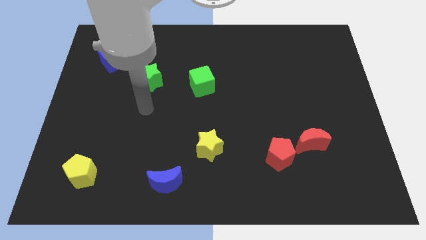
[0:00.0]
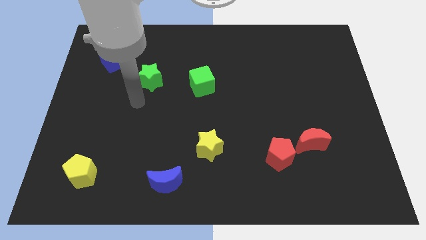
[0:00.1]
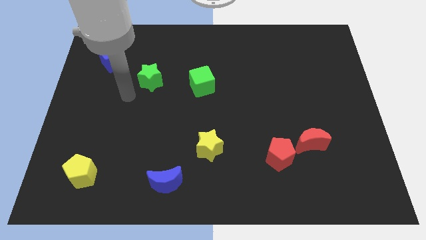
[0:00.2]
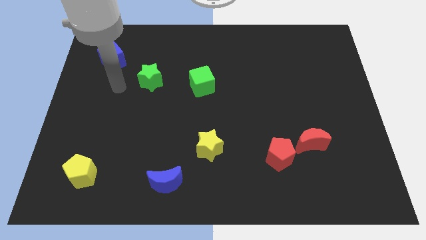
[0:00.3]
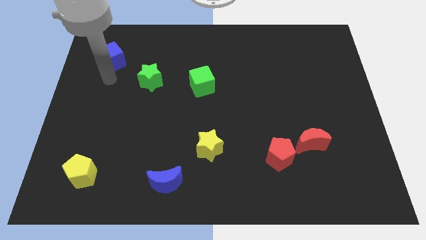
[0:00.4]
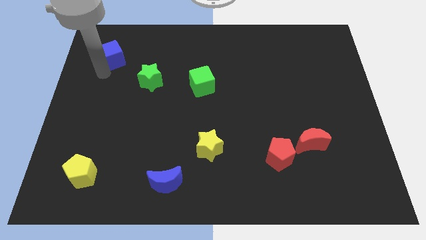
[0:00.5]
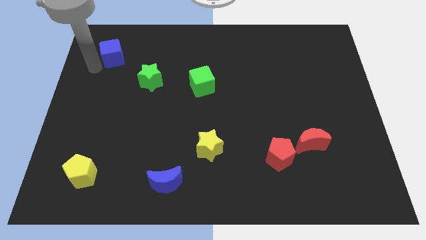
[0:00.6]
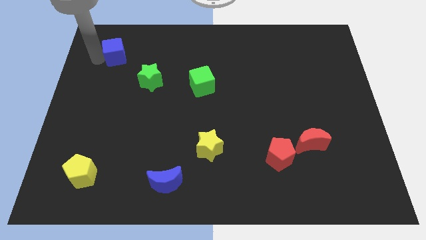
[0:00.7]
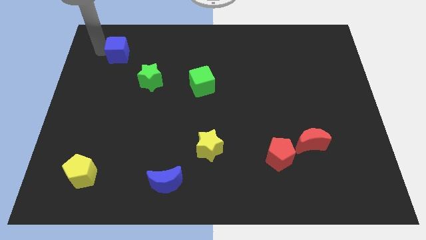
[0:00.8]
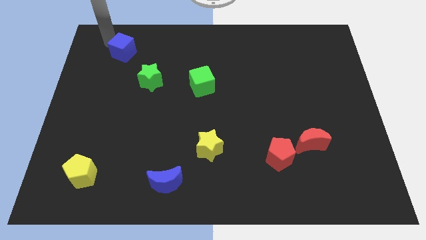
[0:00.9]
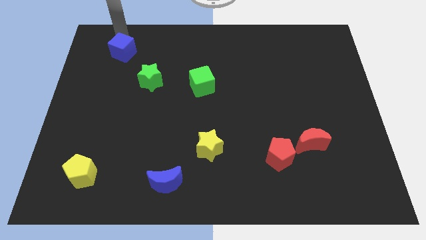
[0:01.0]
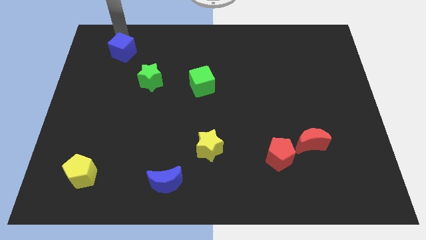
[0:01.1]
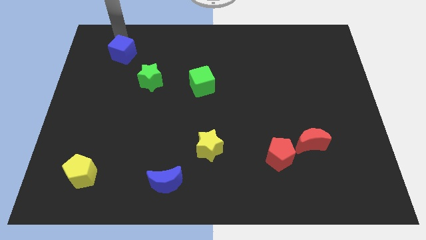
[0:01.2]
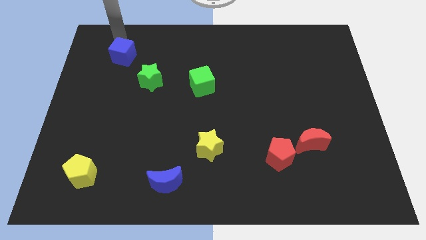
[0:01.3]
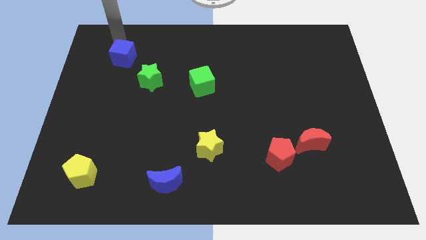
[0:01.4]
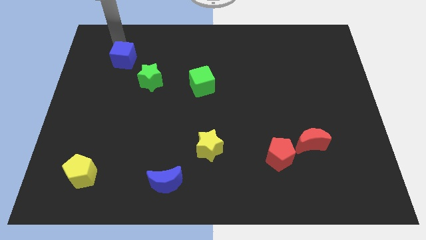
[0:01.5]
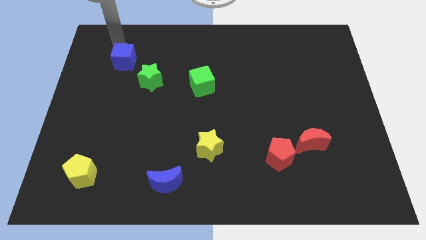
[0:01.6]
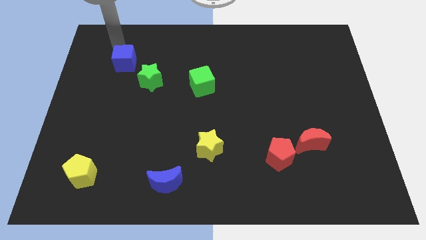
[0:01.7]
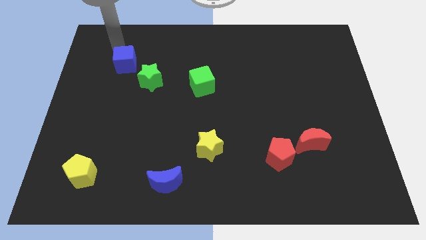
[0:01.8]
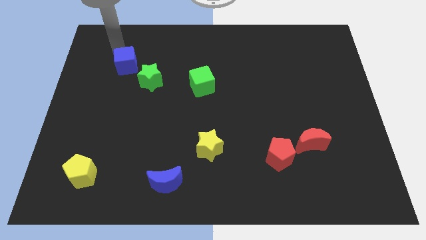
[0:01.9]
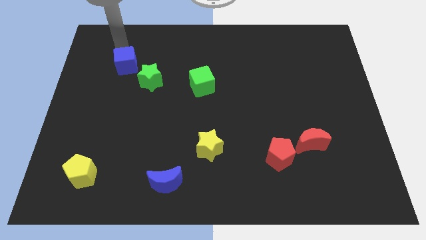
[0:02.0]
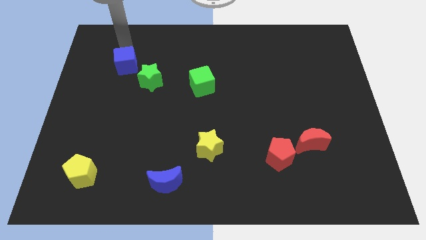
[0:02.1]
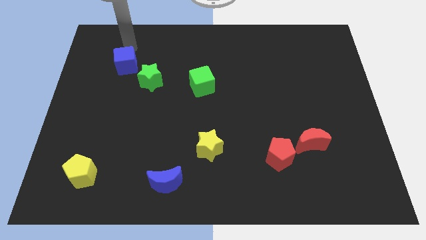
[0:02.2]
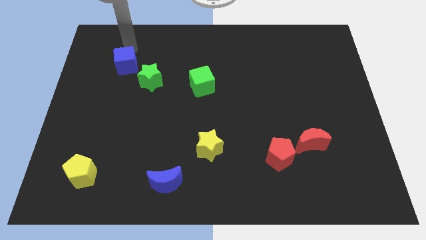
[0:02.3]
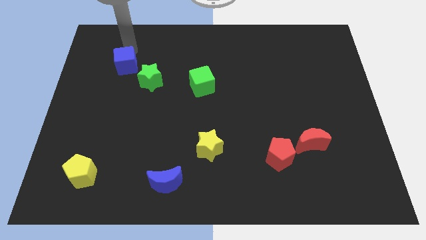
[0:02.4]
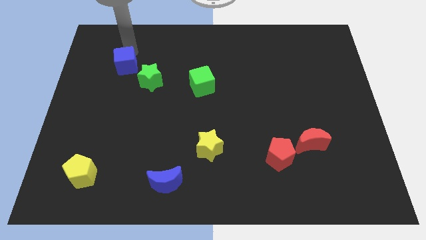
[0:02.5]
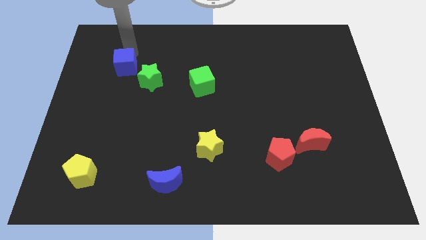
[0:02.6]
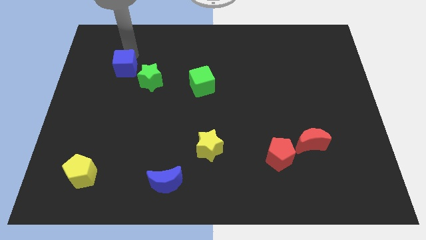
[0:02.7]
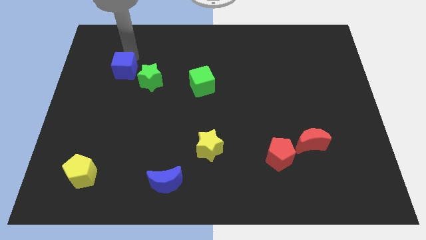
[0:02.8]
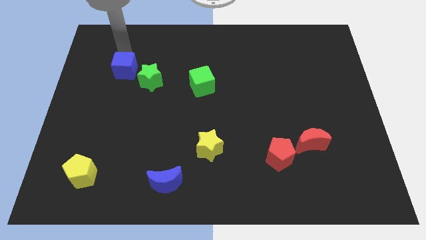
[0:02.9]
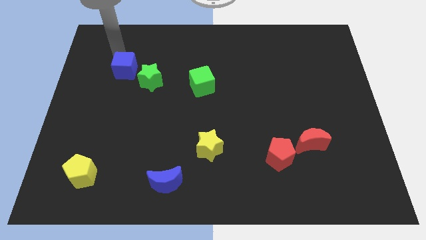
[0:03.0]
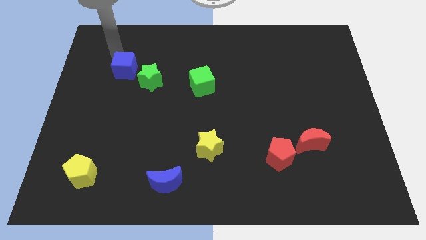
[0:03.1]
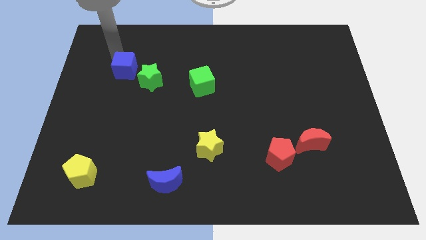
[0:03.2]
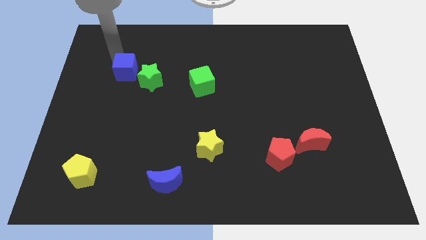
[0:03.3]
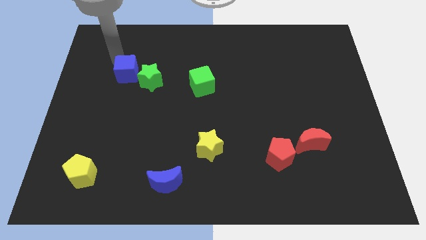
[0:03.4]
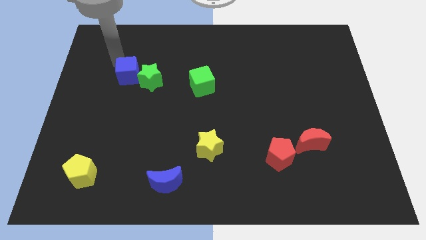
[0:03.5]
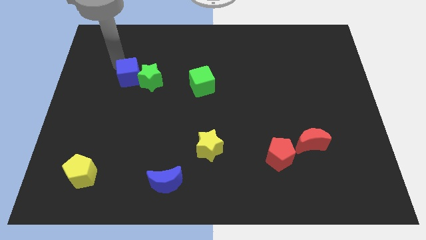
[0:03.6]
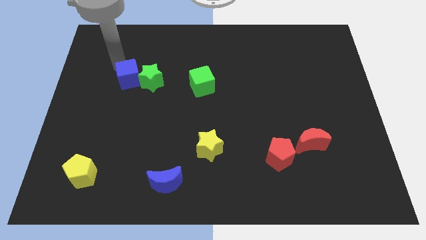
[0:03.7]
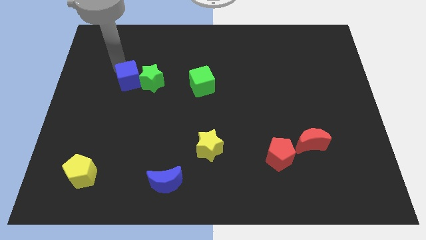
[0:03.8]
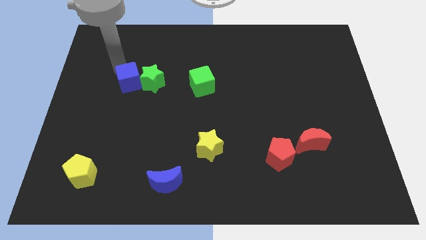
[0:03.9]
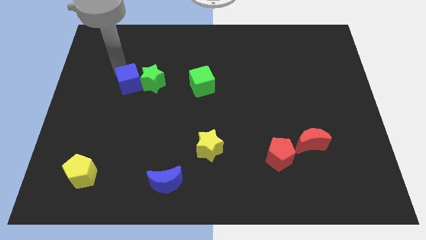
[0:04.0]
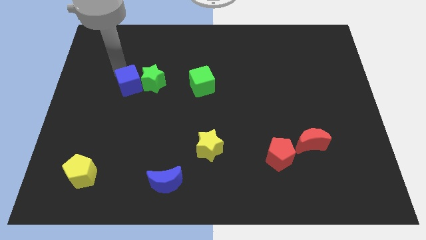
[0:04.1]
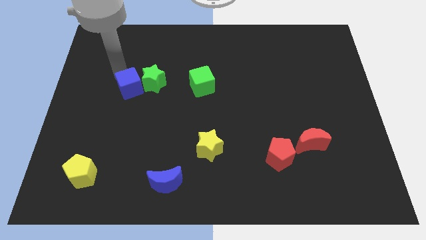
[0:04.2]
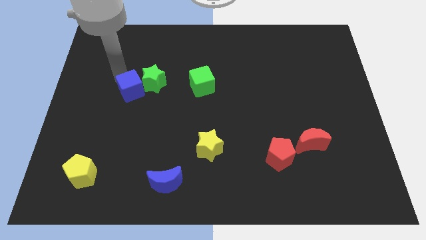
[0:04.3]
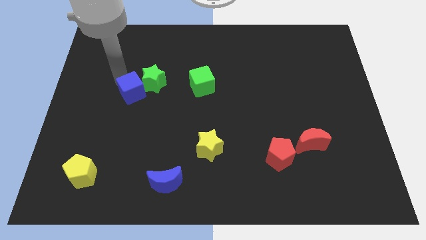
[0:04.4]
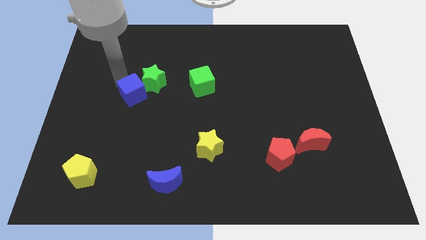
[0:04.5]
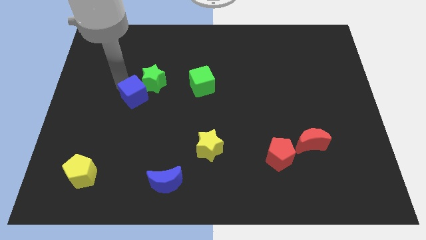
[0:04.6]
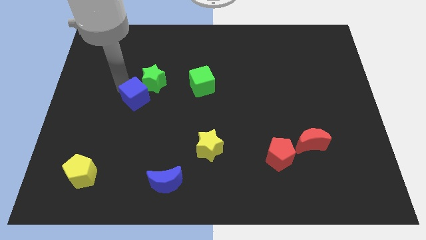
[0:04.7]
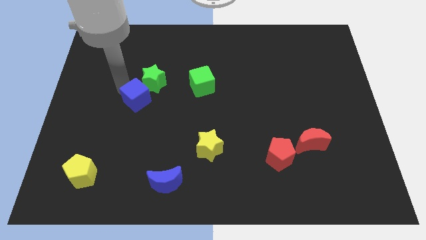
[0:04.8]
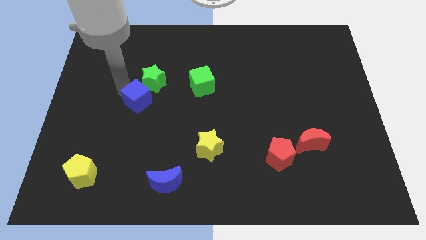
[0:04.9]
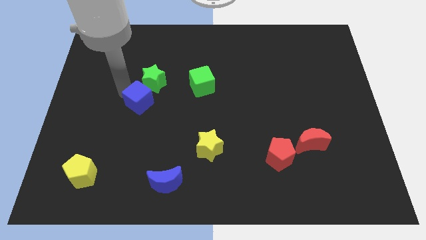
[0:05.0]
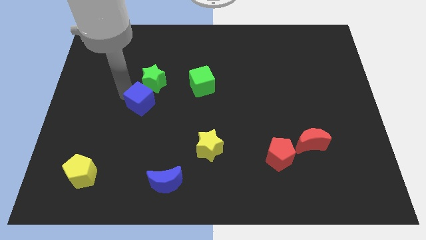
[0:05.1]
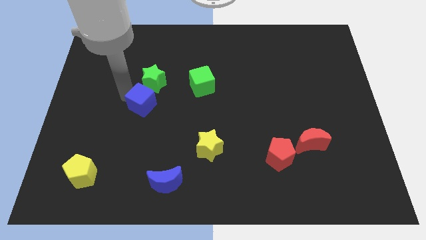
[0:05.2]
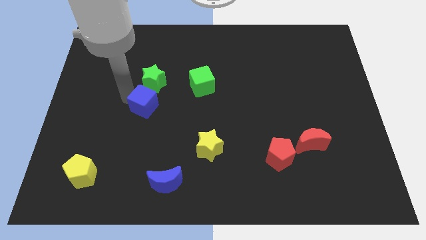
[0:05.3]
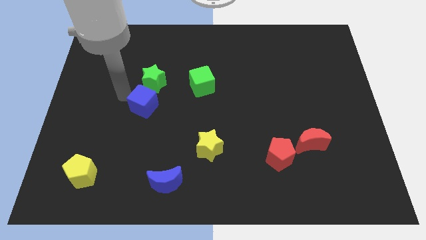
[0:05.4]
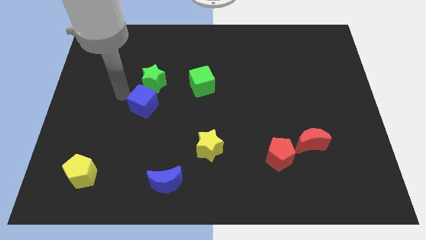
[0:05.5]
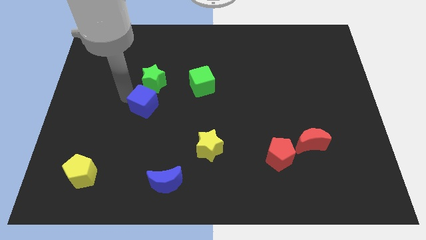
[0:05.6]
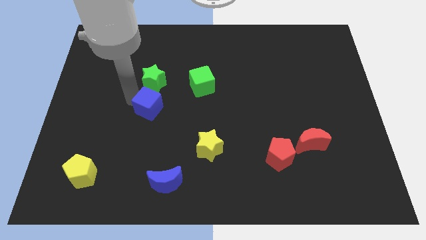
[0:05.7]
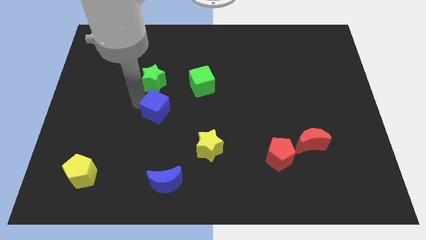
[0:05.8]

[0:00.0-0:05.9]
slide the blue cube down and then to the right

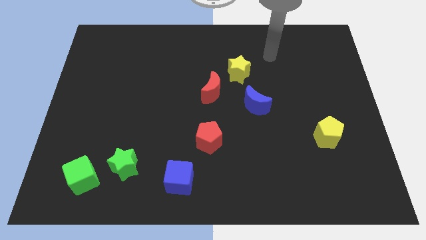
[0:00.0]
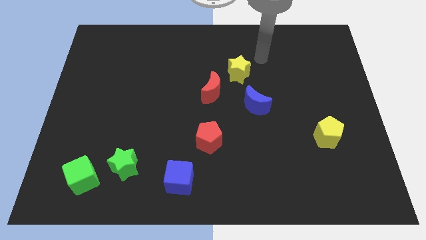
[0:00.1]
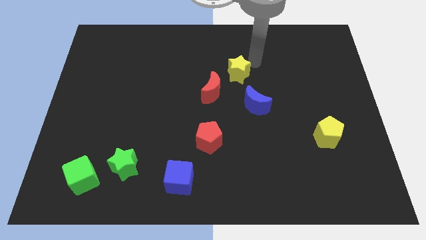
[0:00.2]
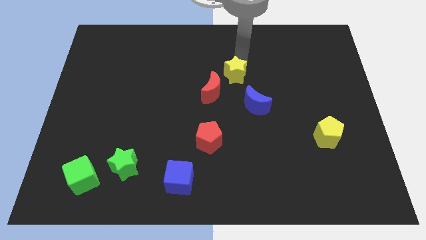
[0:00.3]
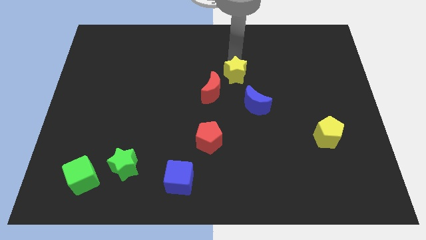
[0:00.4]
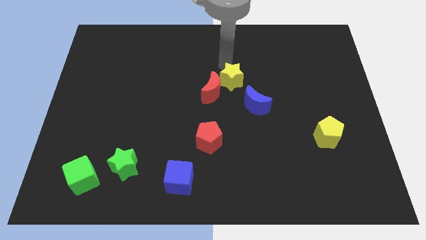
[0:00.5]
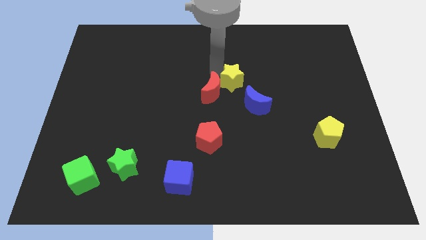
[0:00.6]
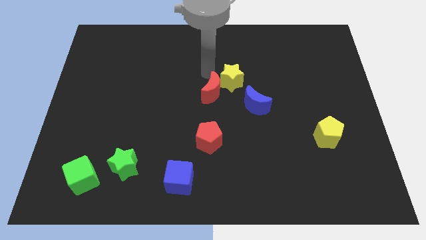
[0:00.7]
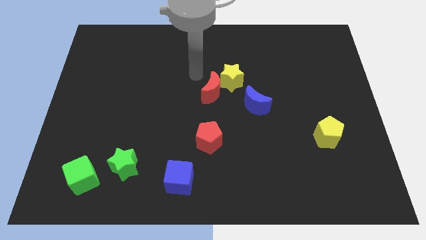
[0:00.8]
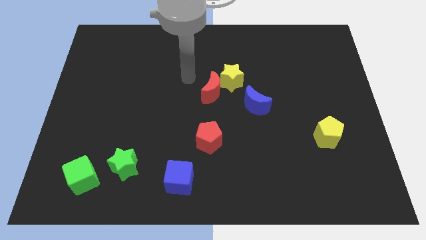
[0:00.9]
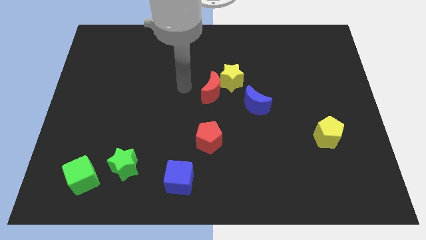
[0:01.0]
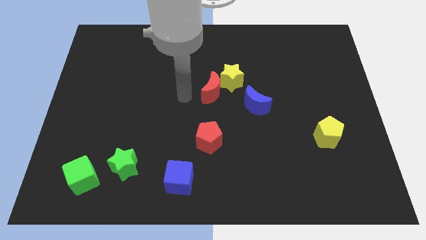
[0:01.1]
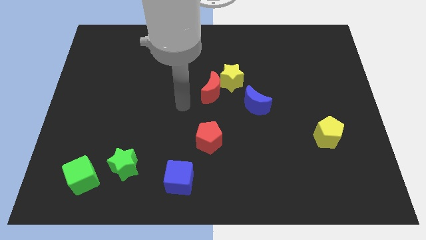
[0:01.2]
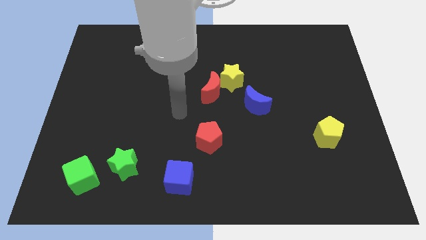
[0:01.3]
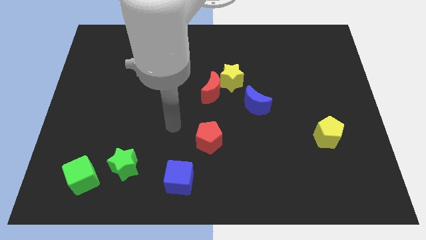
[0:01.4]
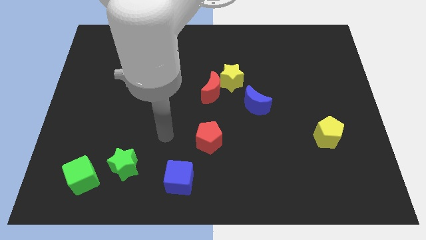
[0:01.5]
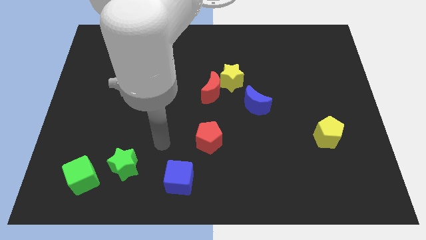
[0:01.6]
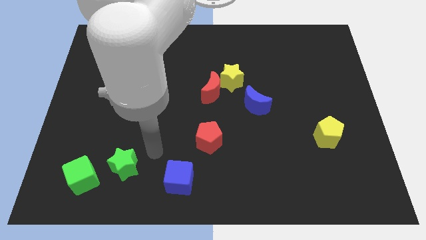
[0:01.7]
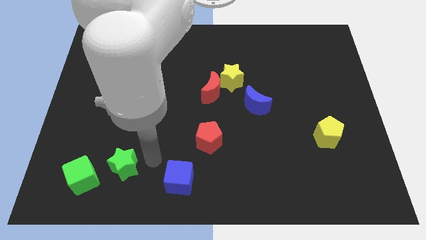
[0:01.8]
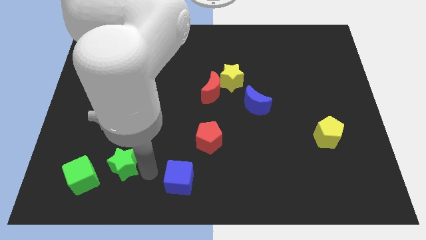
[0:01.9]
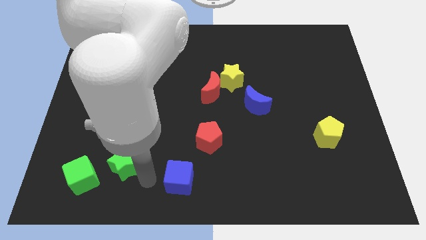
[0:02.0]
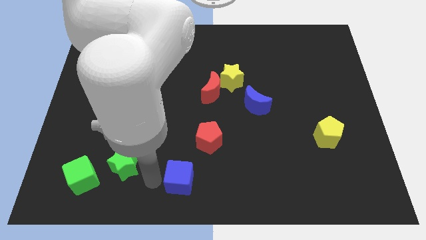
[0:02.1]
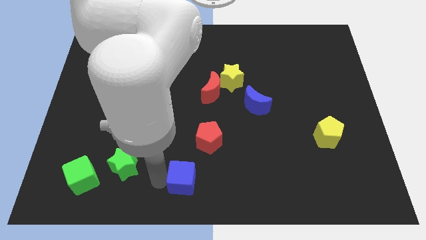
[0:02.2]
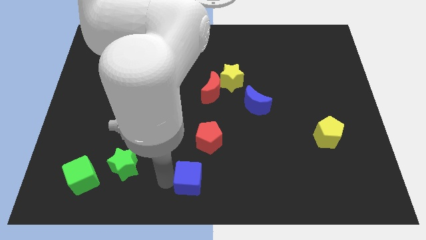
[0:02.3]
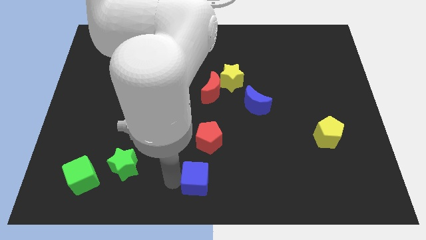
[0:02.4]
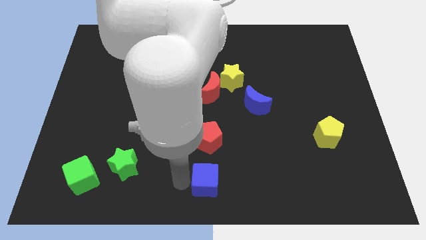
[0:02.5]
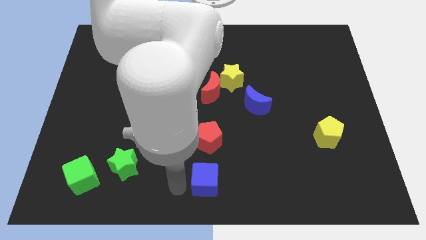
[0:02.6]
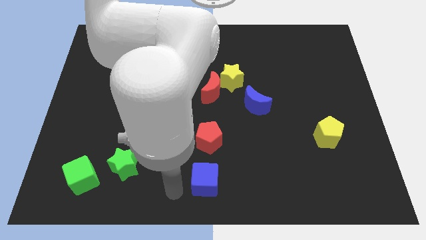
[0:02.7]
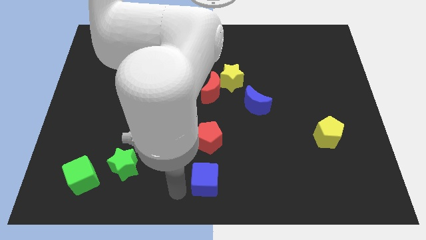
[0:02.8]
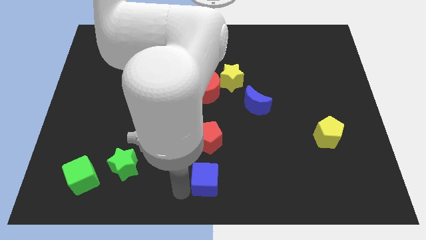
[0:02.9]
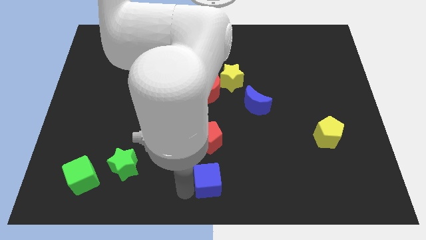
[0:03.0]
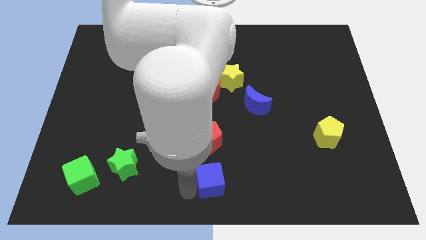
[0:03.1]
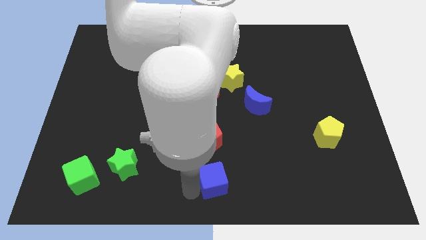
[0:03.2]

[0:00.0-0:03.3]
push the blue cube to the right somewhat
